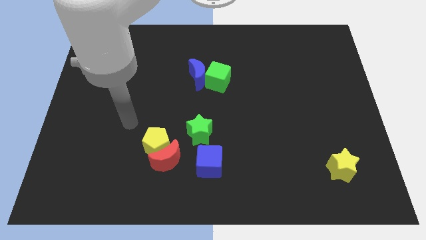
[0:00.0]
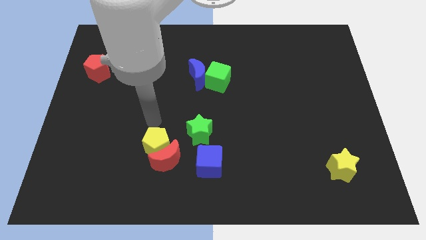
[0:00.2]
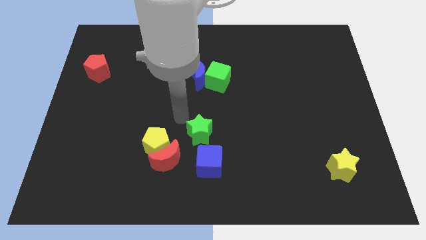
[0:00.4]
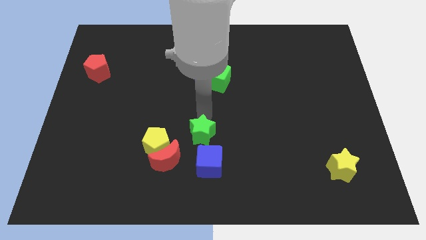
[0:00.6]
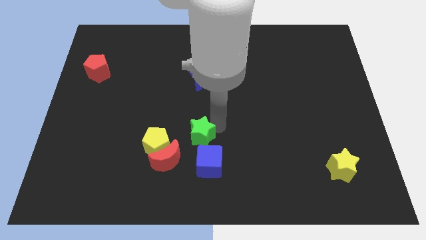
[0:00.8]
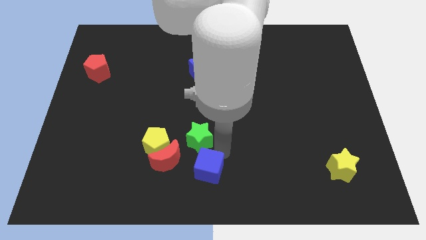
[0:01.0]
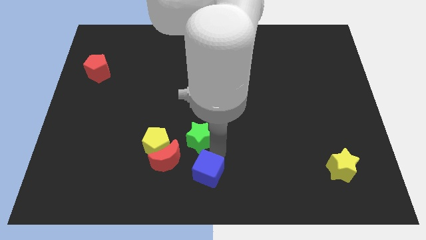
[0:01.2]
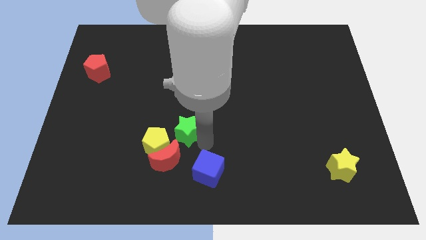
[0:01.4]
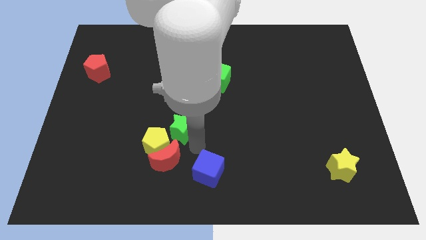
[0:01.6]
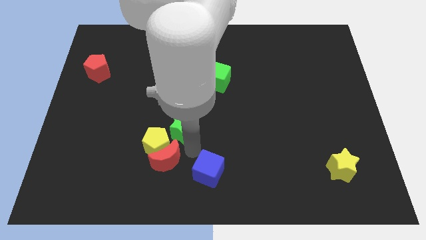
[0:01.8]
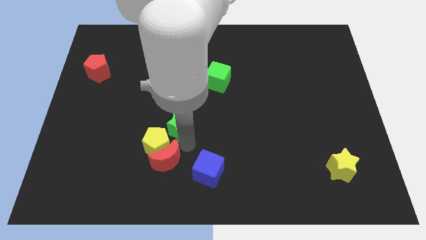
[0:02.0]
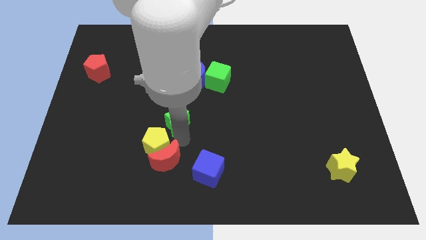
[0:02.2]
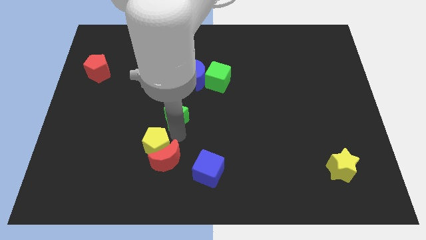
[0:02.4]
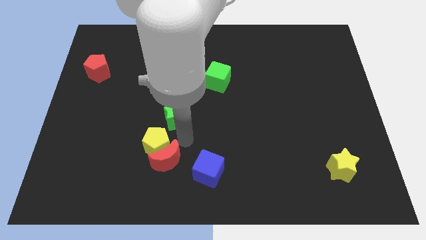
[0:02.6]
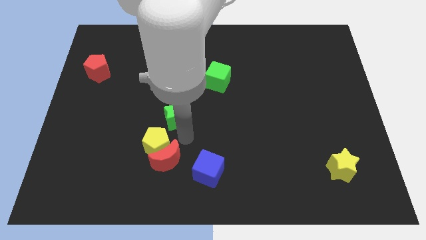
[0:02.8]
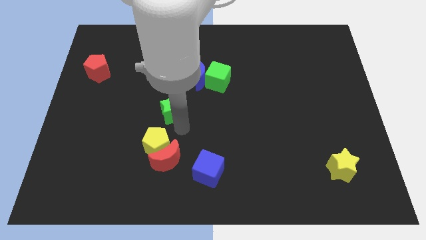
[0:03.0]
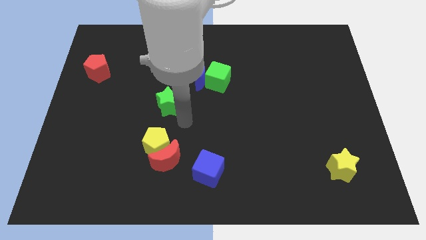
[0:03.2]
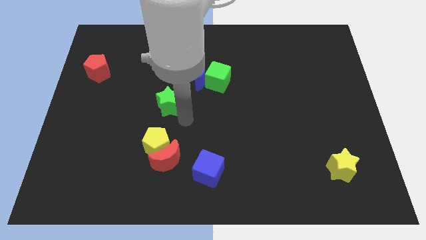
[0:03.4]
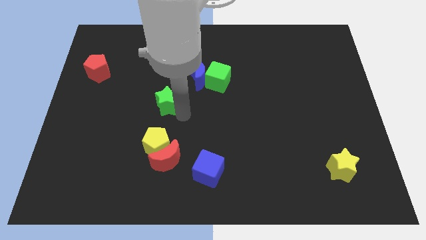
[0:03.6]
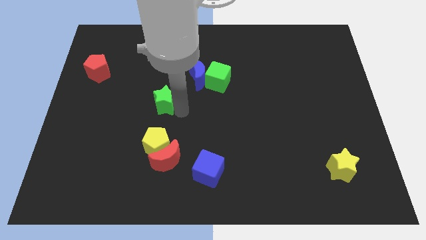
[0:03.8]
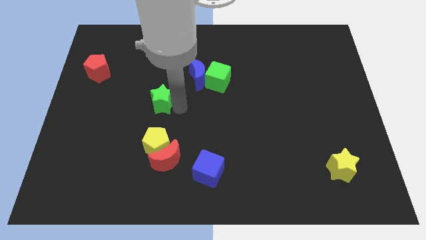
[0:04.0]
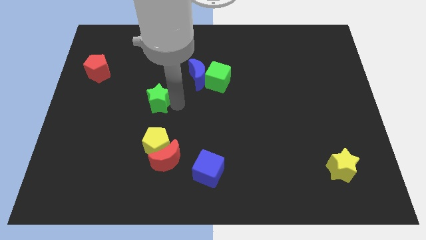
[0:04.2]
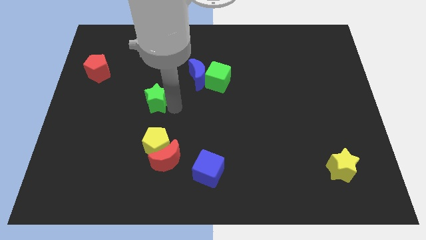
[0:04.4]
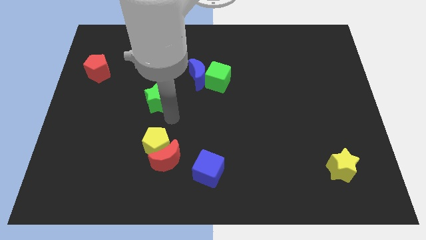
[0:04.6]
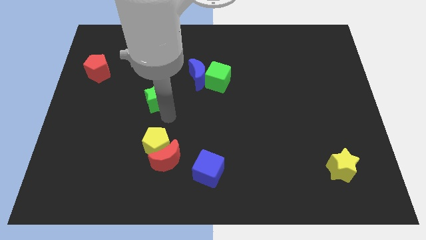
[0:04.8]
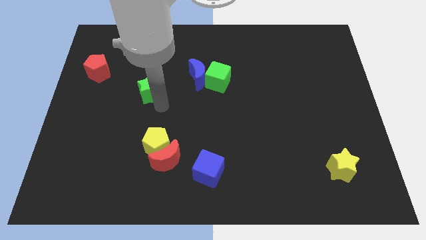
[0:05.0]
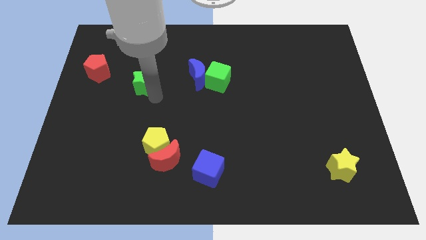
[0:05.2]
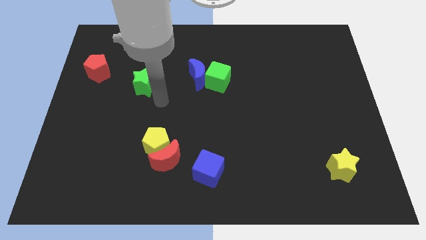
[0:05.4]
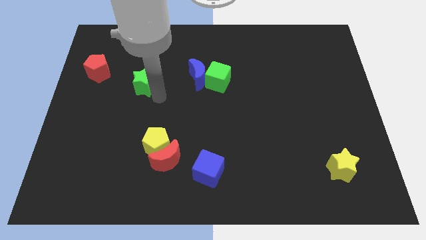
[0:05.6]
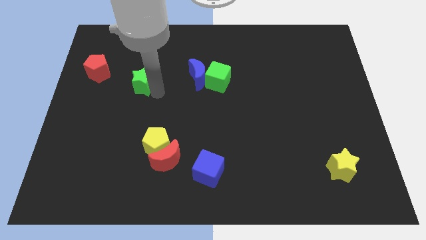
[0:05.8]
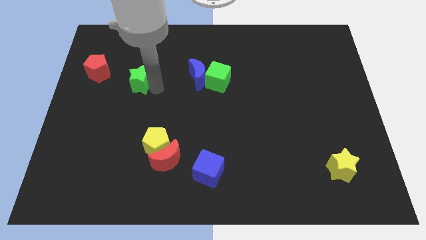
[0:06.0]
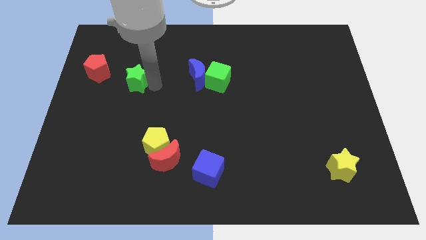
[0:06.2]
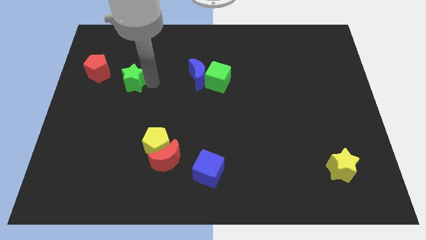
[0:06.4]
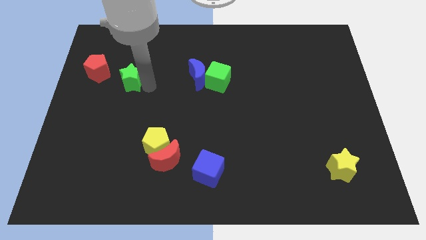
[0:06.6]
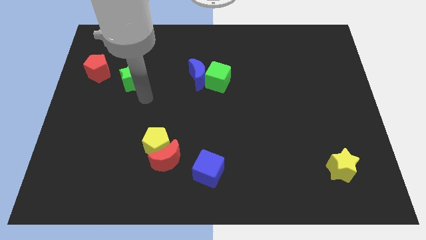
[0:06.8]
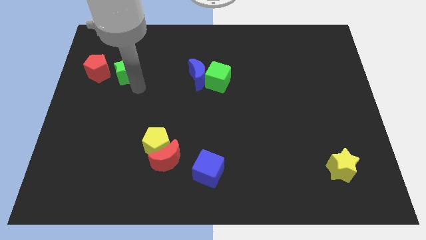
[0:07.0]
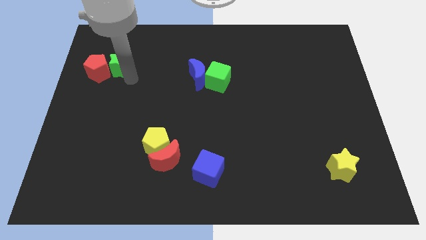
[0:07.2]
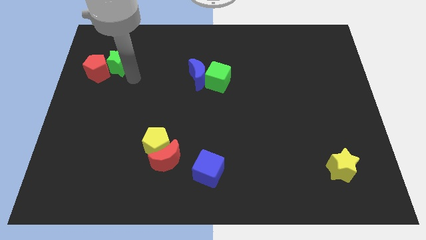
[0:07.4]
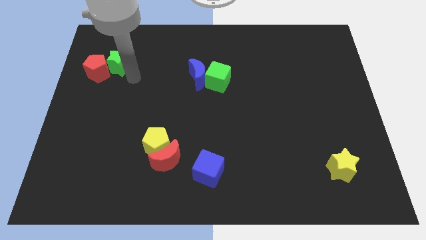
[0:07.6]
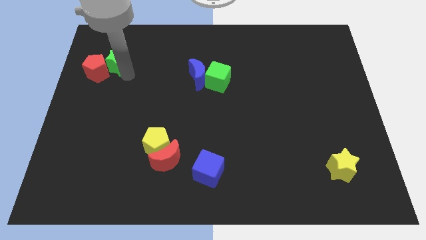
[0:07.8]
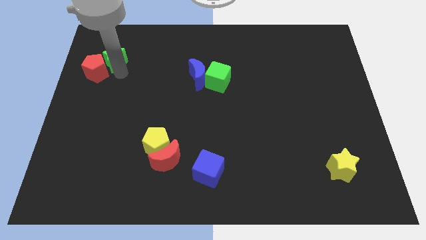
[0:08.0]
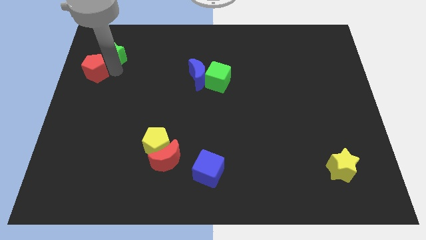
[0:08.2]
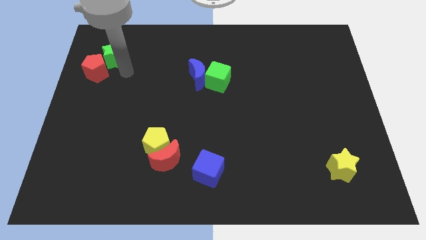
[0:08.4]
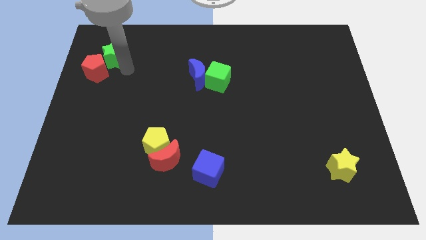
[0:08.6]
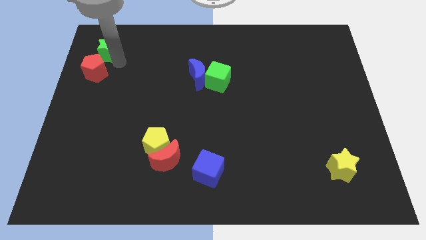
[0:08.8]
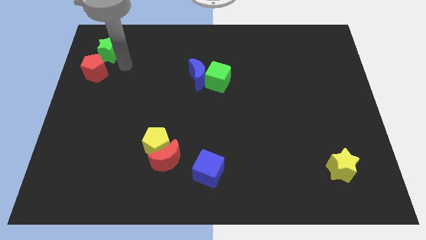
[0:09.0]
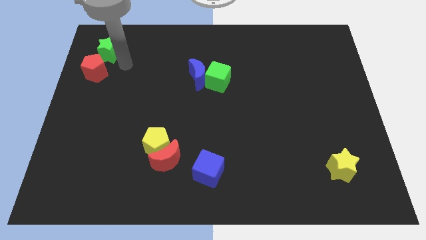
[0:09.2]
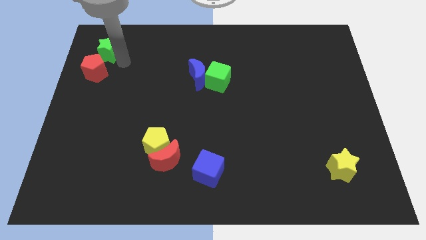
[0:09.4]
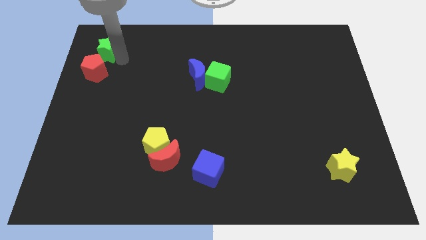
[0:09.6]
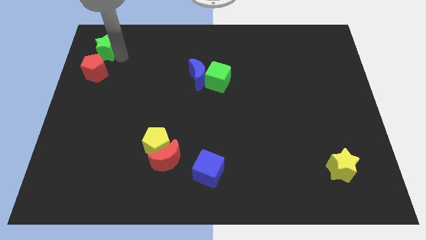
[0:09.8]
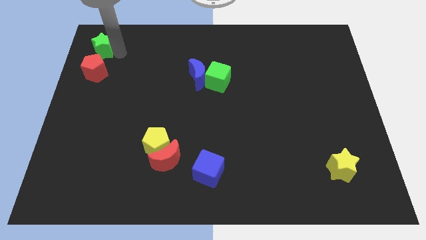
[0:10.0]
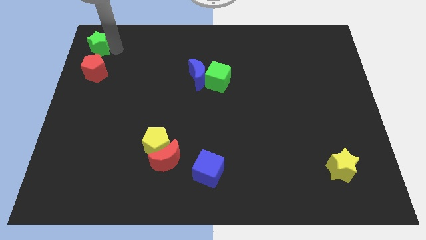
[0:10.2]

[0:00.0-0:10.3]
push the green star to the top left of the board

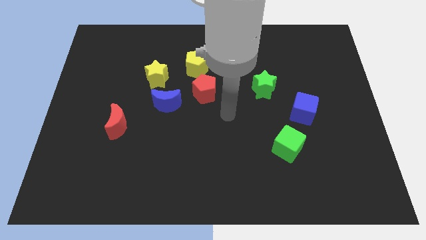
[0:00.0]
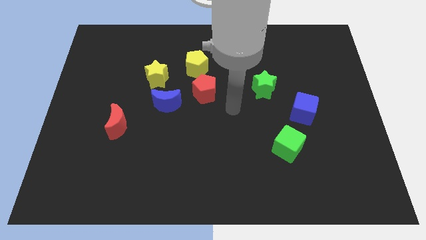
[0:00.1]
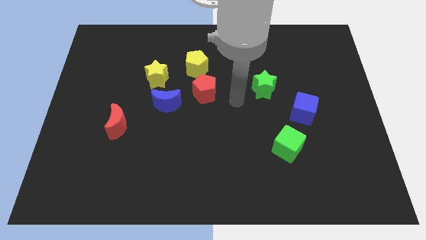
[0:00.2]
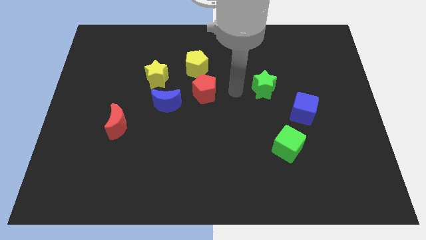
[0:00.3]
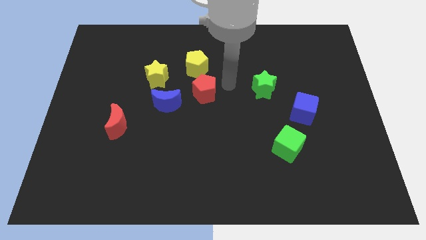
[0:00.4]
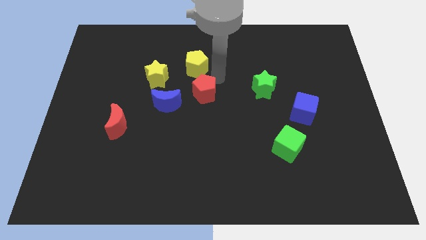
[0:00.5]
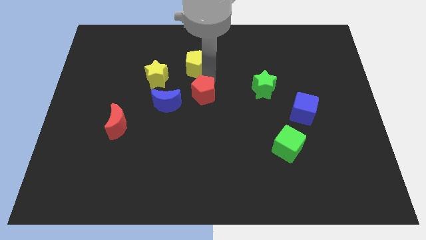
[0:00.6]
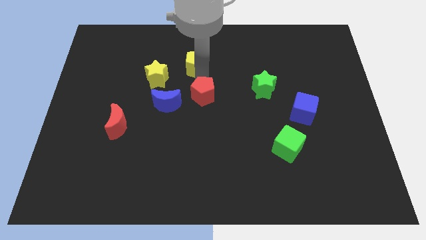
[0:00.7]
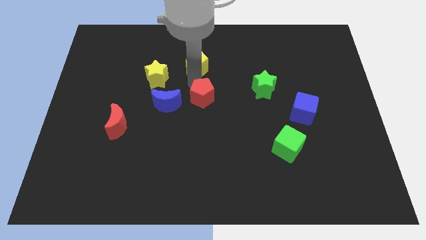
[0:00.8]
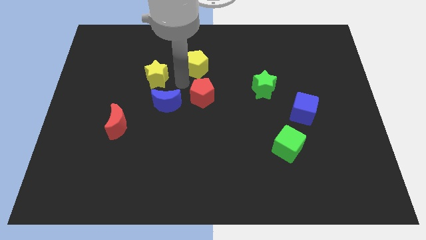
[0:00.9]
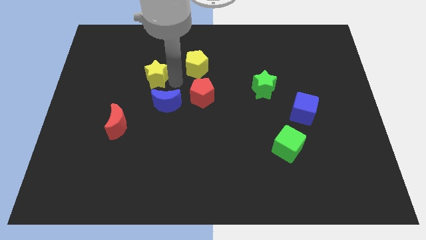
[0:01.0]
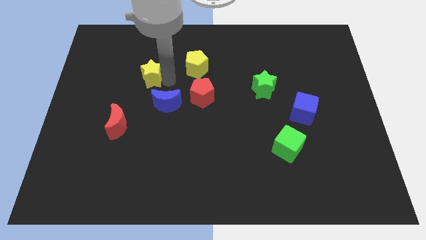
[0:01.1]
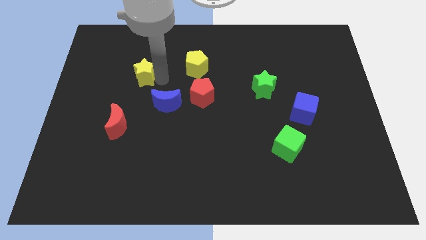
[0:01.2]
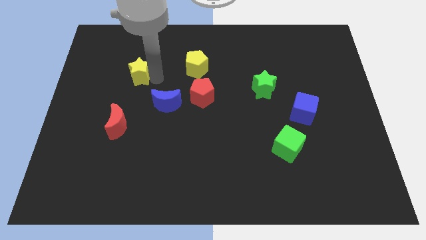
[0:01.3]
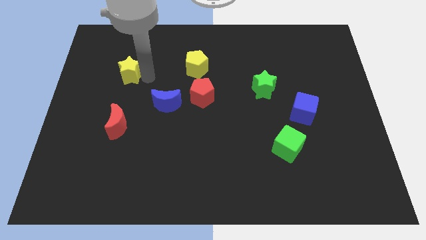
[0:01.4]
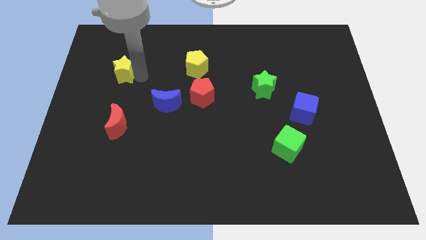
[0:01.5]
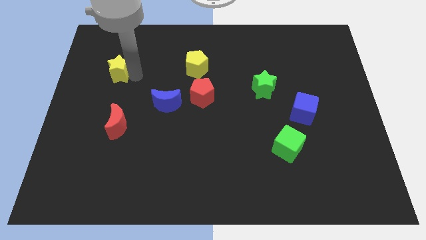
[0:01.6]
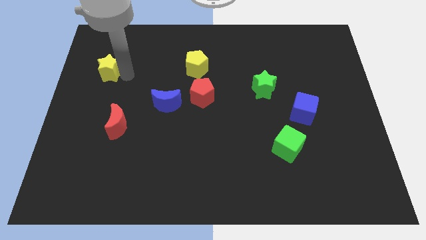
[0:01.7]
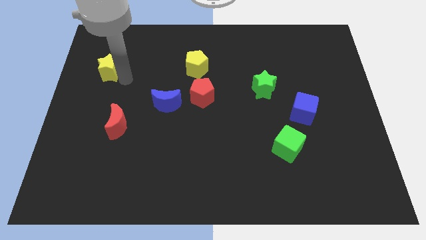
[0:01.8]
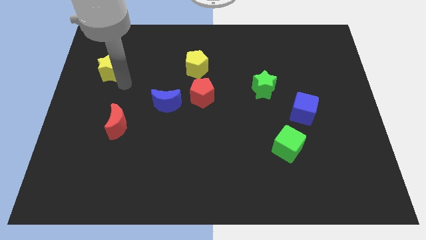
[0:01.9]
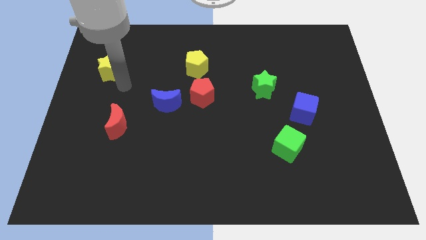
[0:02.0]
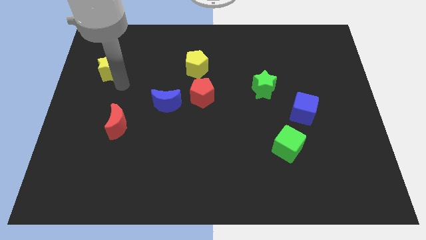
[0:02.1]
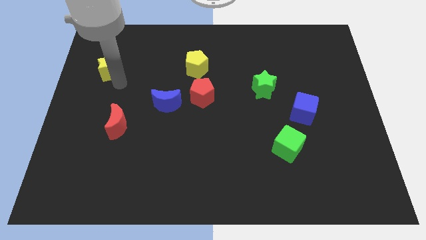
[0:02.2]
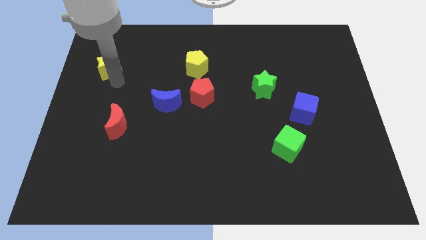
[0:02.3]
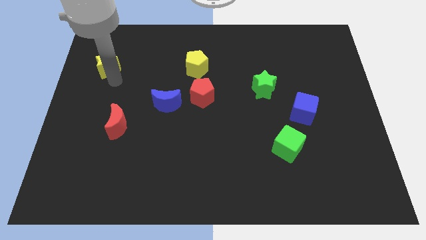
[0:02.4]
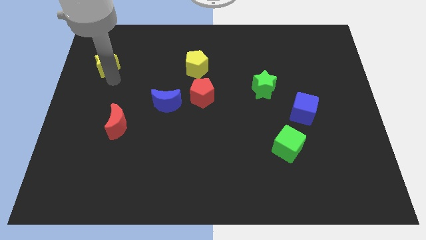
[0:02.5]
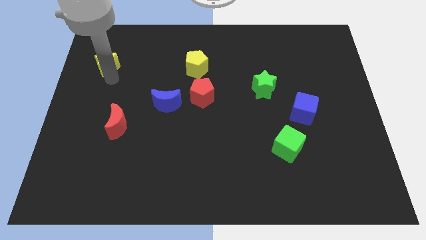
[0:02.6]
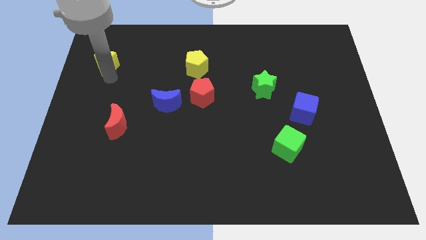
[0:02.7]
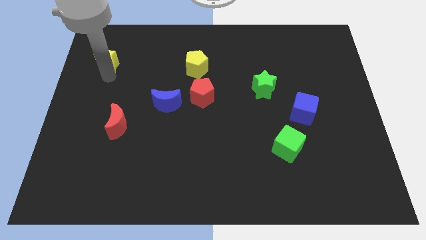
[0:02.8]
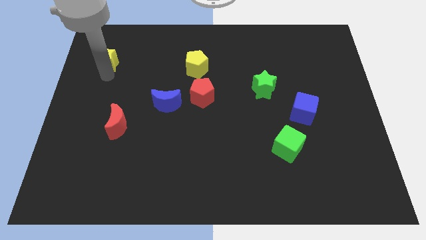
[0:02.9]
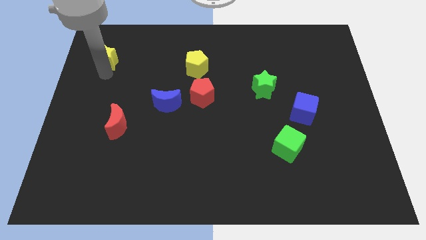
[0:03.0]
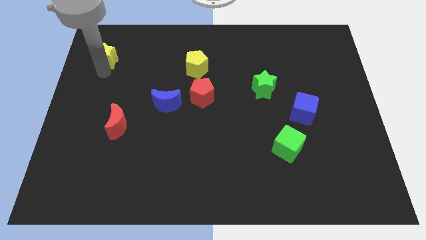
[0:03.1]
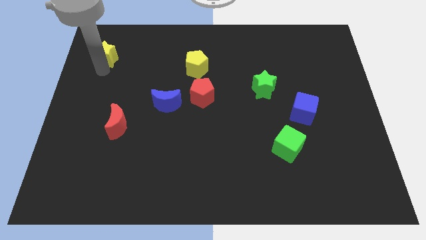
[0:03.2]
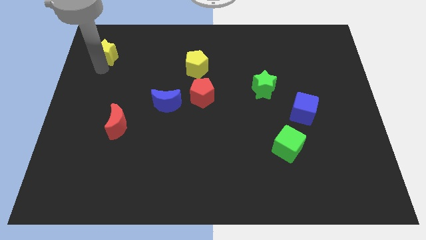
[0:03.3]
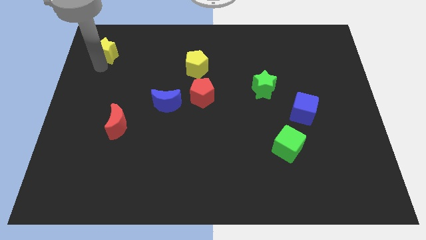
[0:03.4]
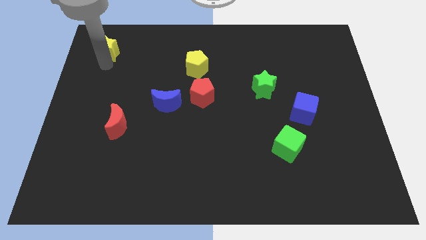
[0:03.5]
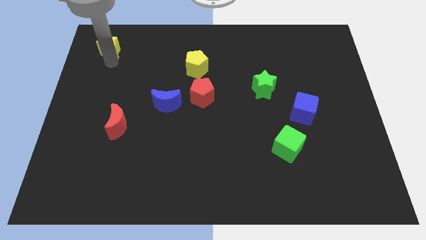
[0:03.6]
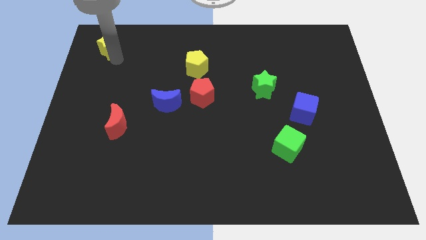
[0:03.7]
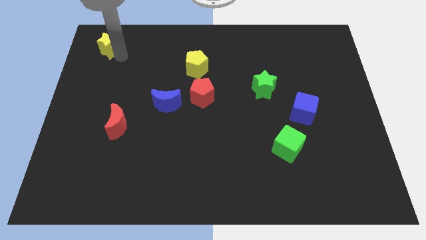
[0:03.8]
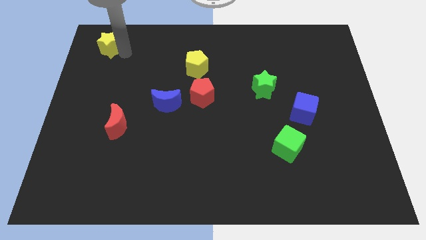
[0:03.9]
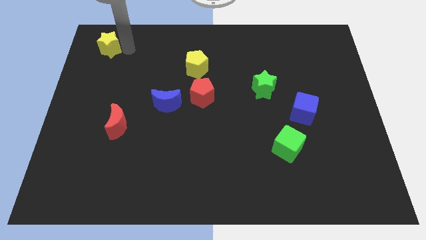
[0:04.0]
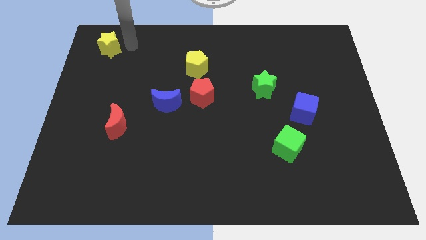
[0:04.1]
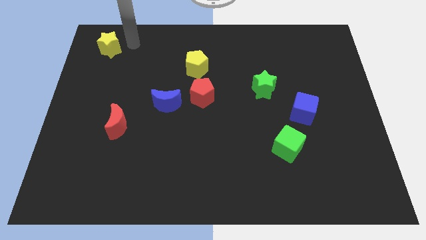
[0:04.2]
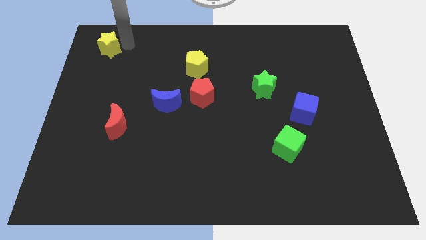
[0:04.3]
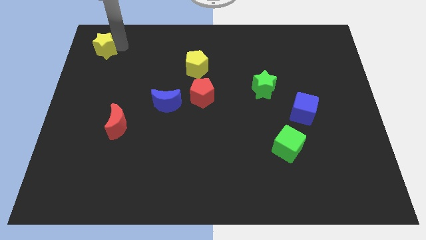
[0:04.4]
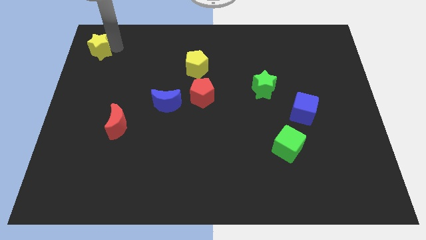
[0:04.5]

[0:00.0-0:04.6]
slide the yellow star to the top left of the board
